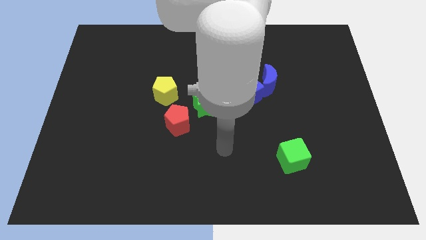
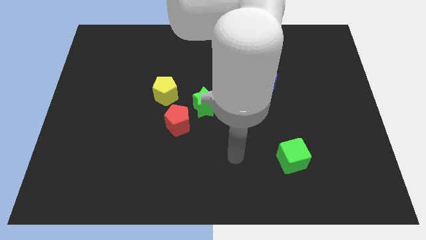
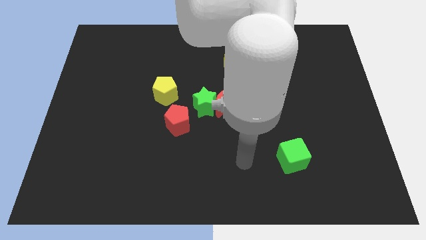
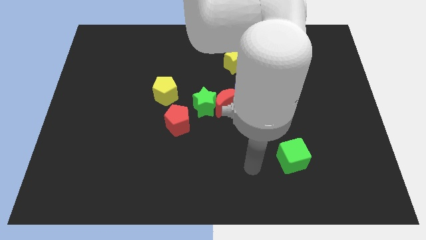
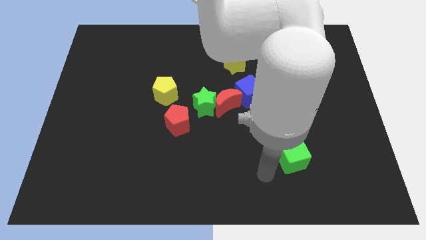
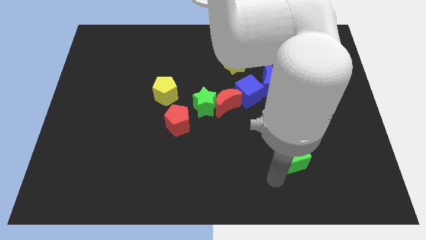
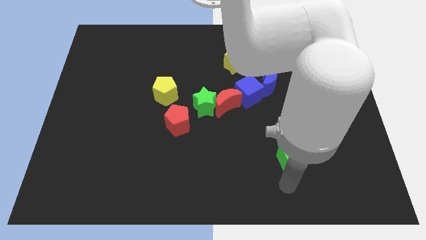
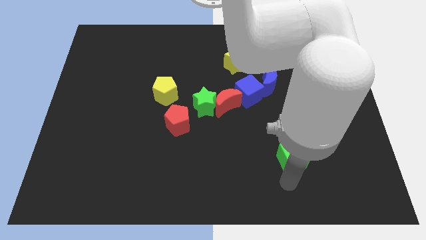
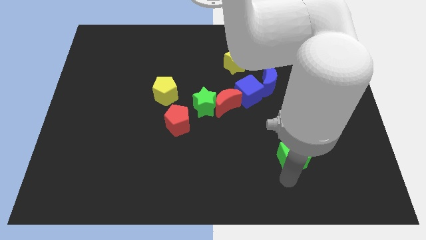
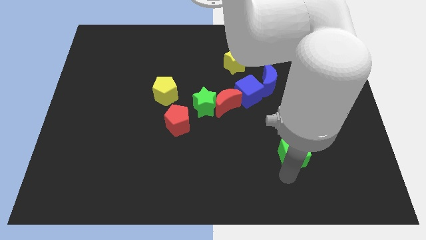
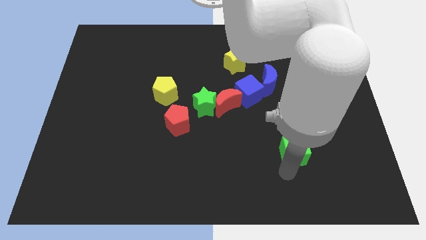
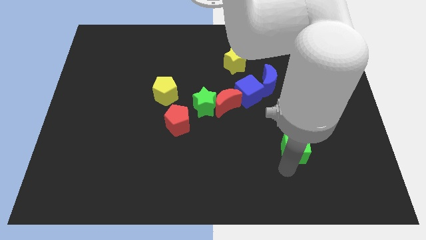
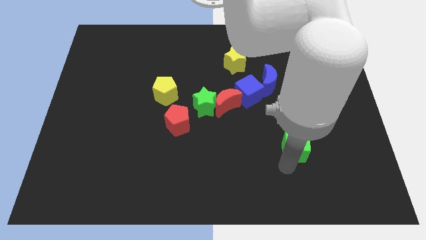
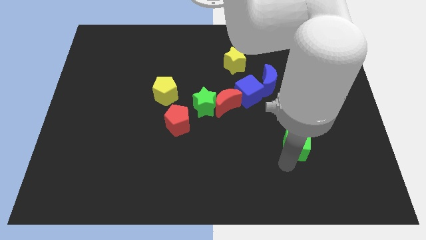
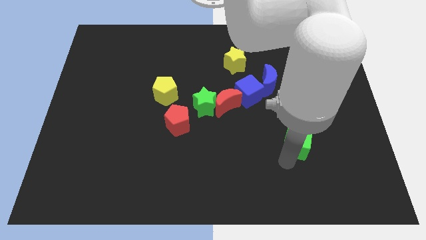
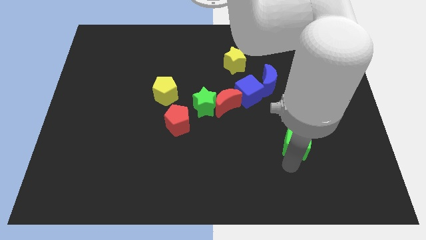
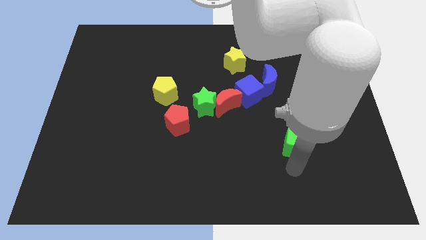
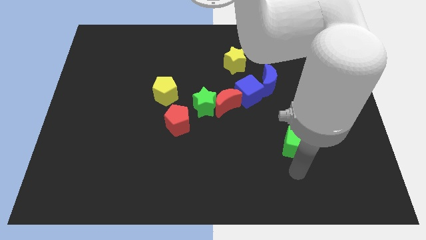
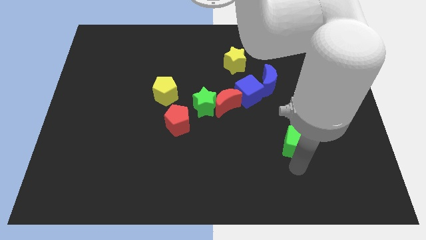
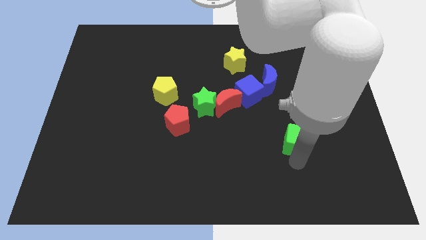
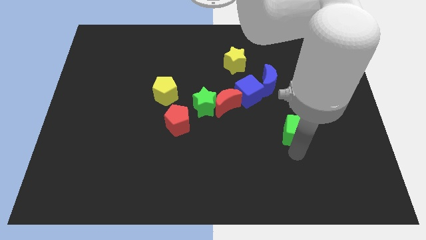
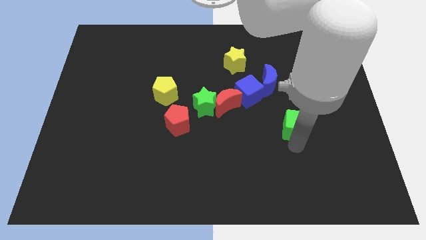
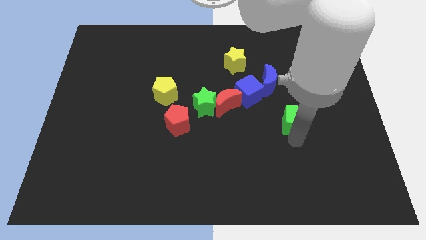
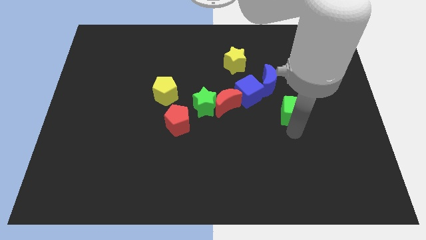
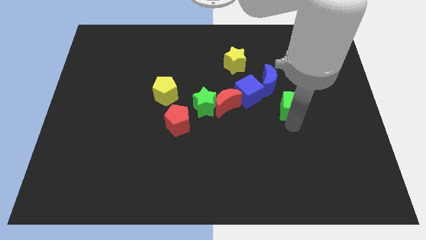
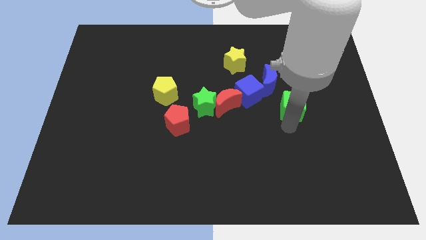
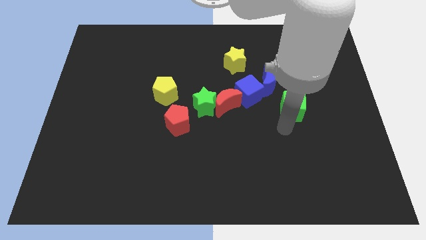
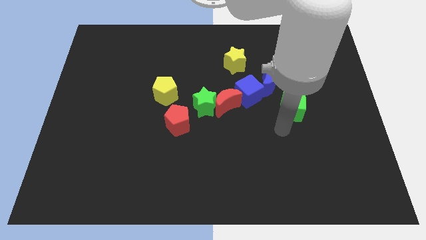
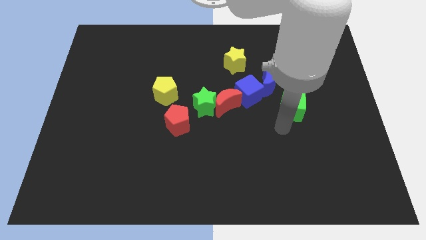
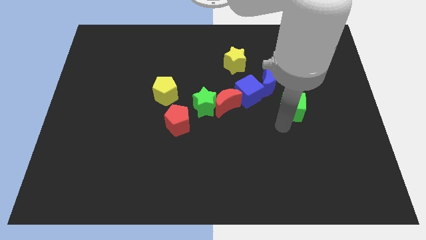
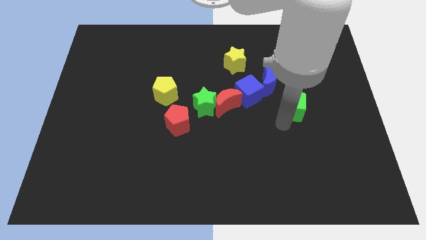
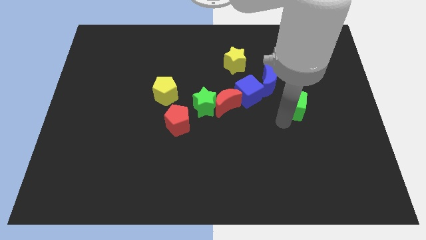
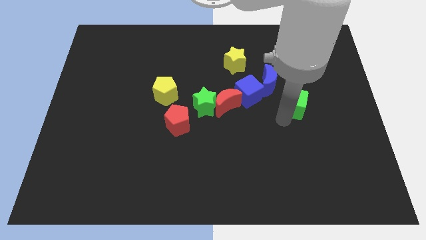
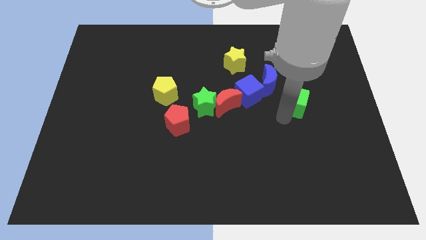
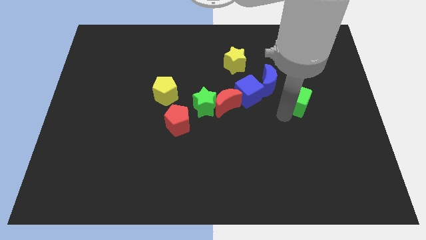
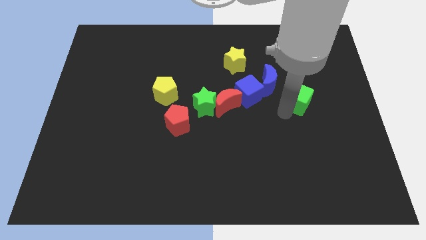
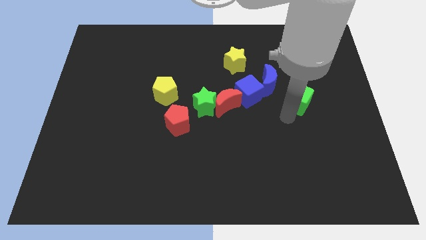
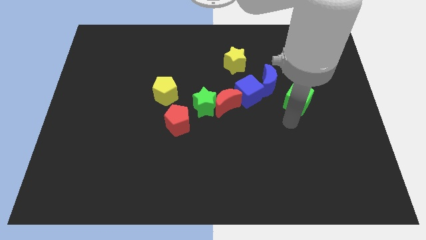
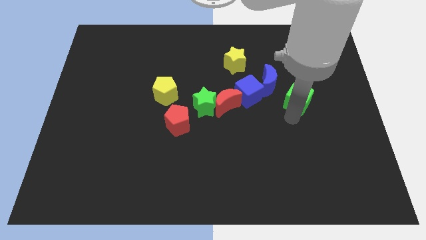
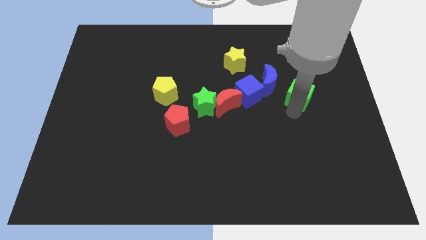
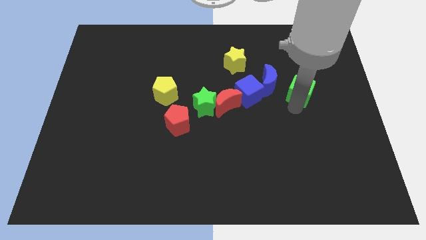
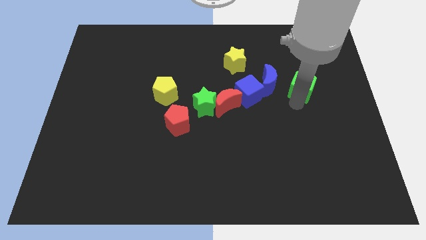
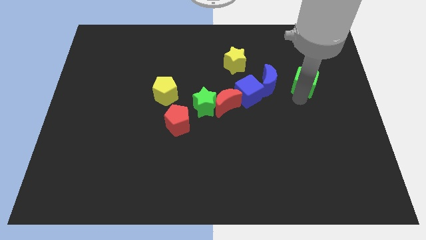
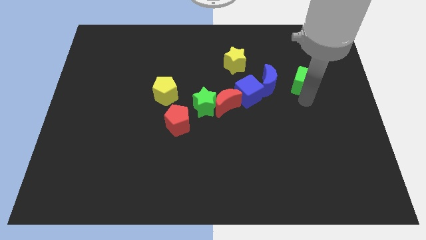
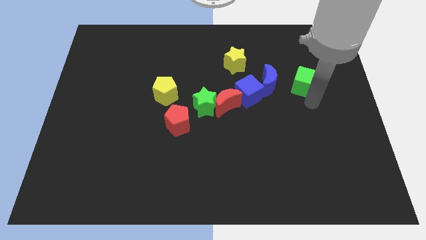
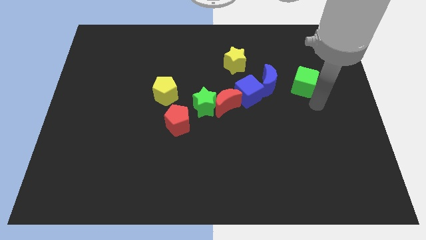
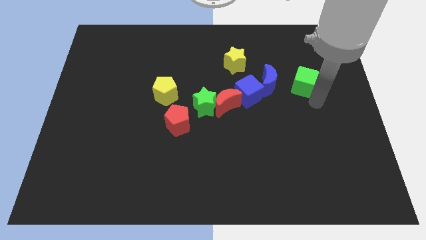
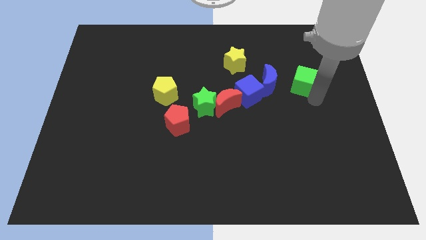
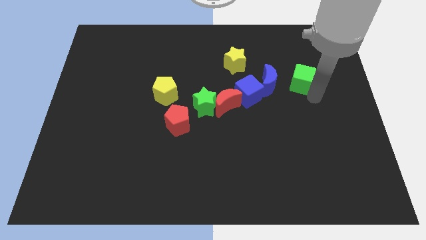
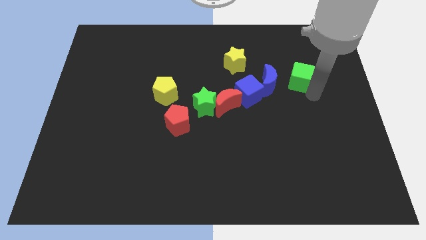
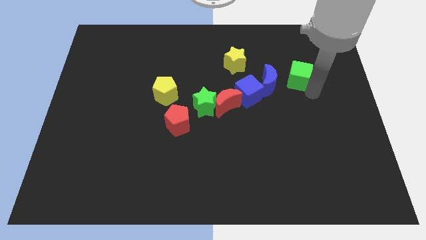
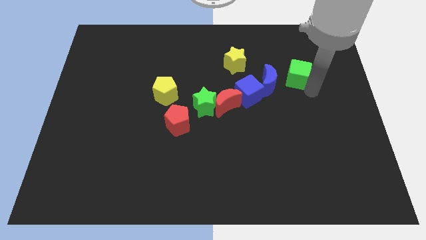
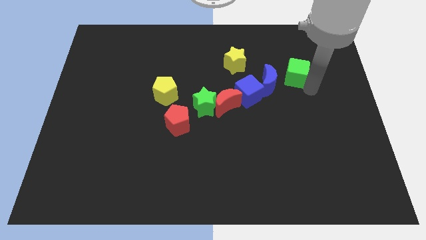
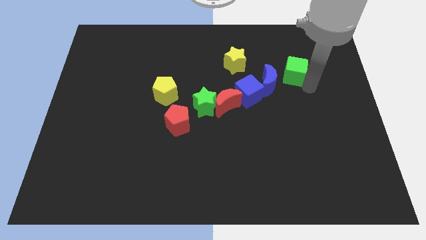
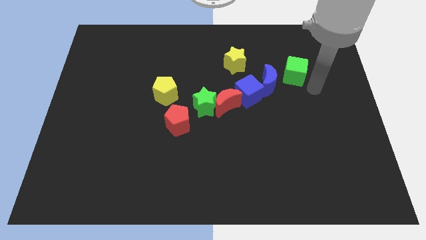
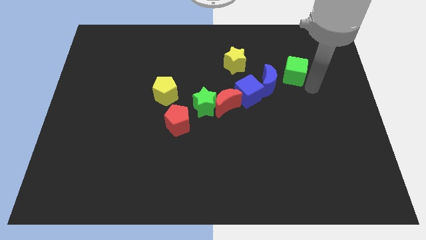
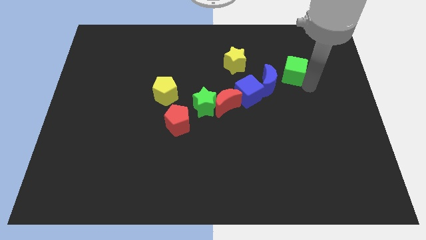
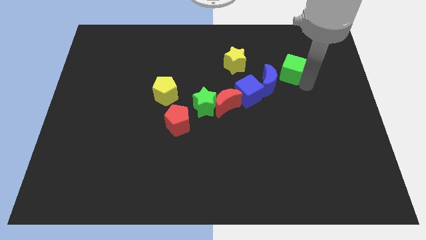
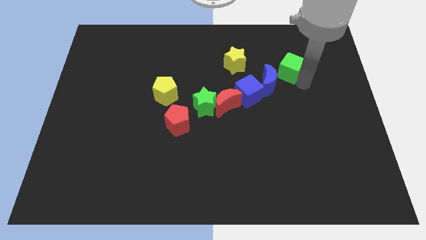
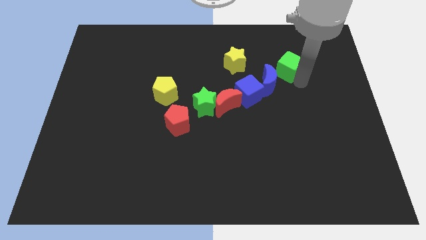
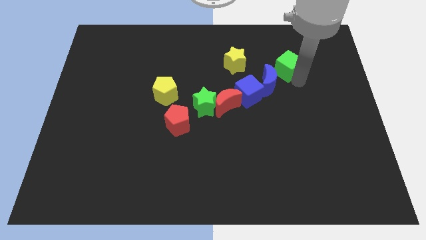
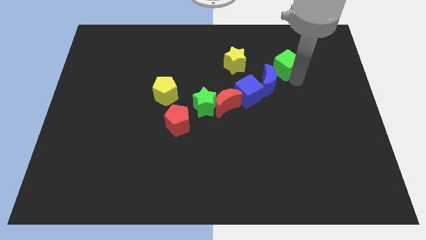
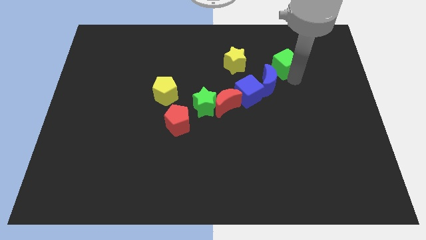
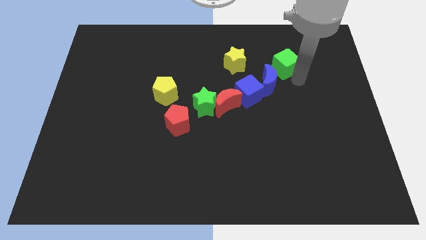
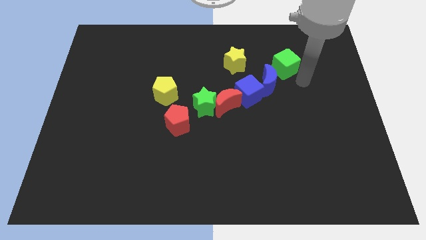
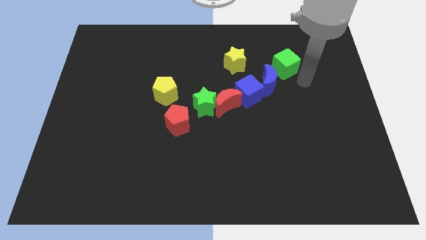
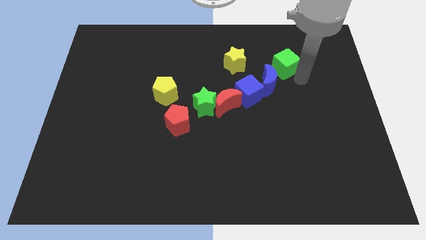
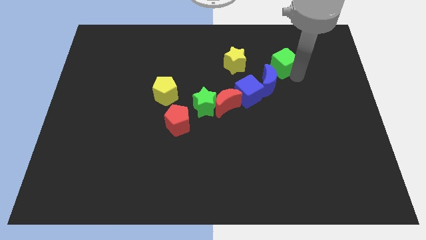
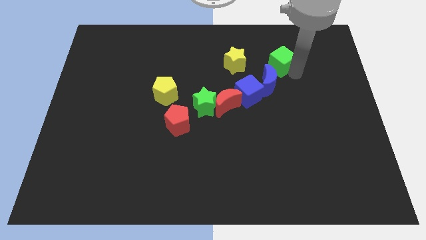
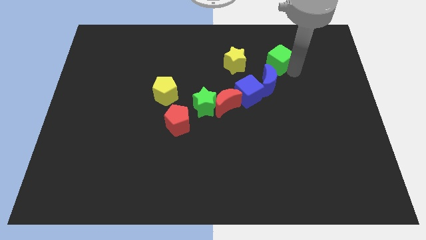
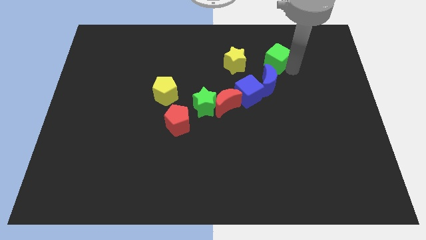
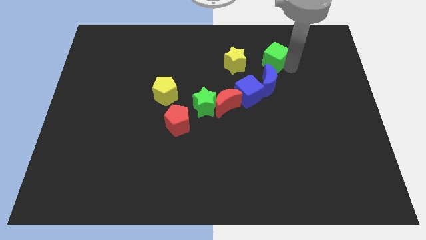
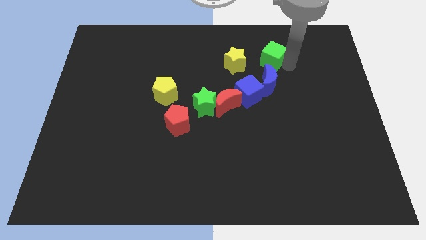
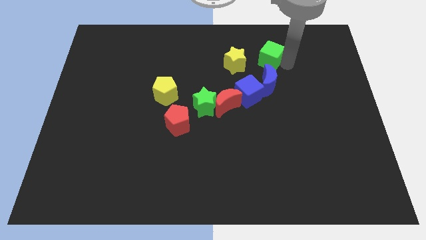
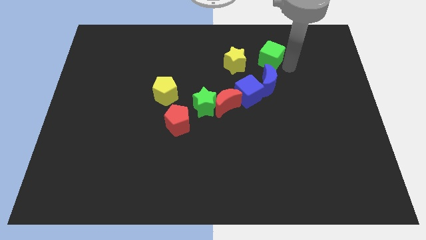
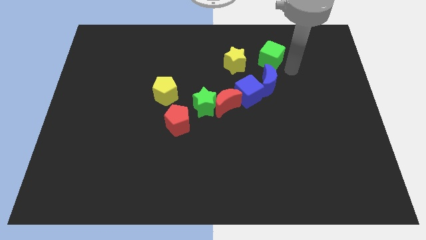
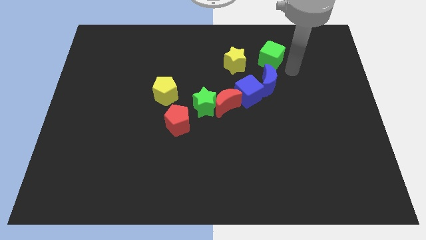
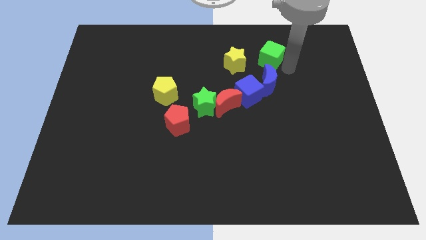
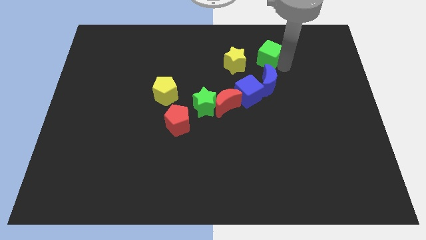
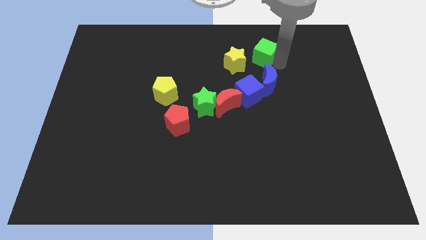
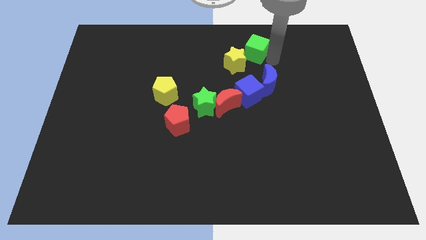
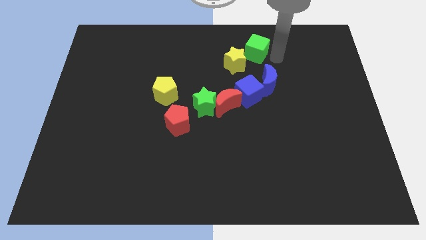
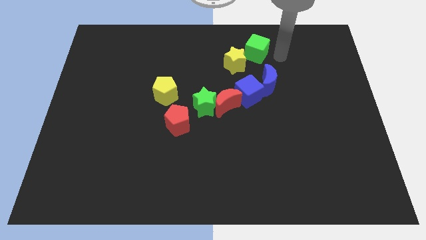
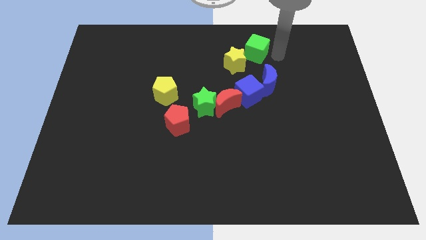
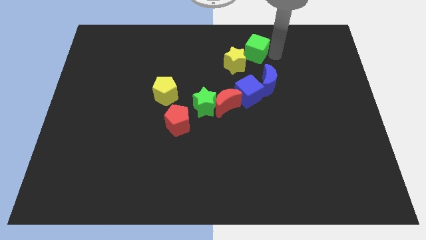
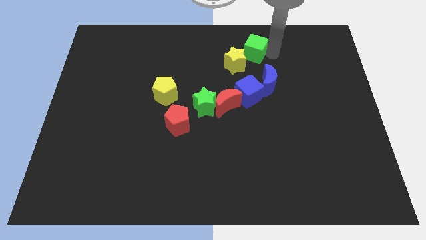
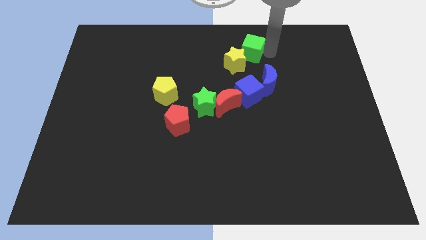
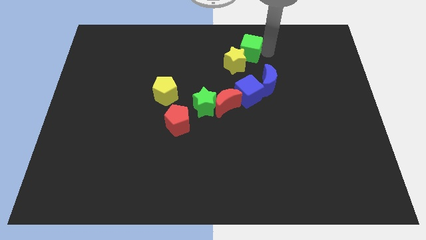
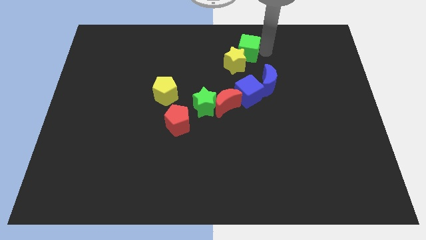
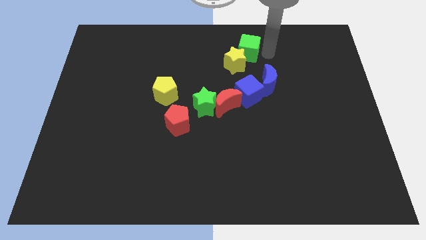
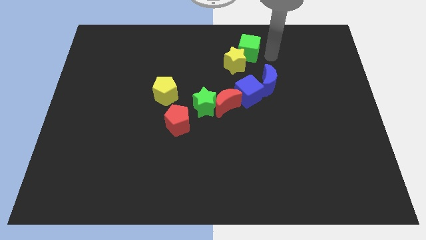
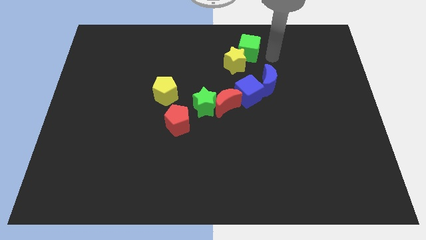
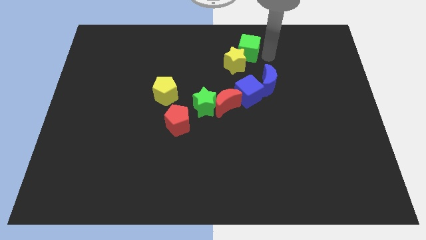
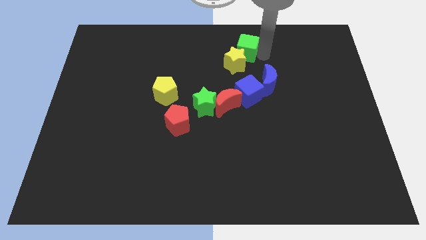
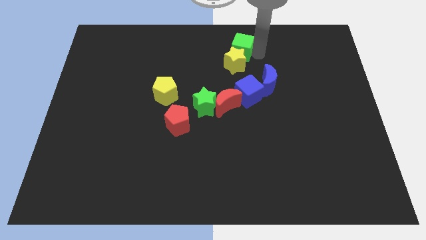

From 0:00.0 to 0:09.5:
slide the green cube to the towards your base
